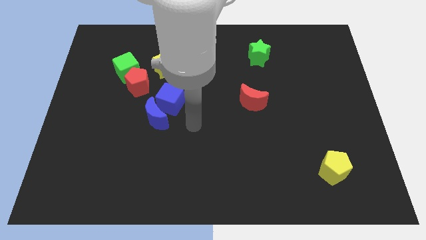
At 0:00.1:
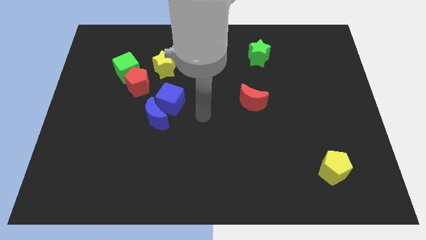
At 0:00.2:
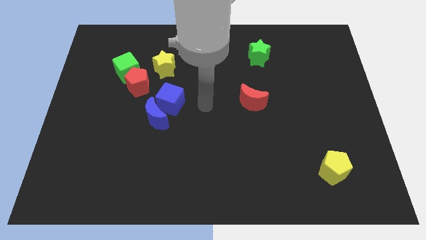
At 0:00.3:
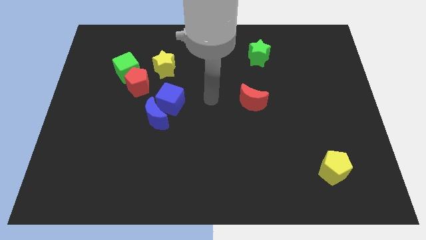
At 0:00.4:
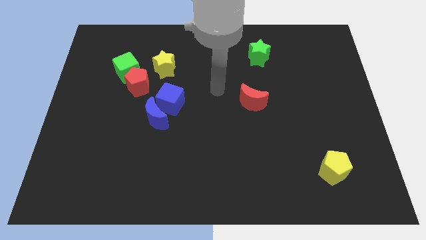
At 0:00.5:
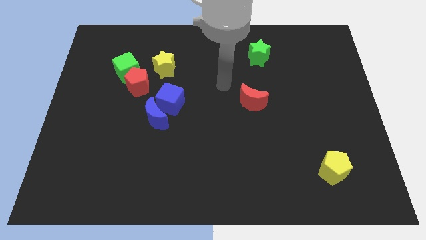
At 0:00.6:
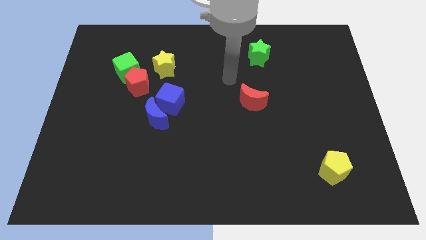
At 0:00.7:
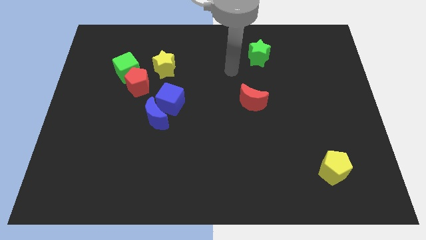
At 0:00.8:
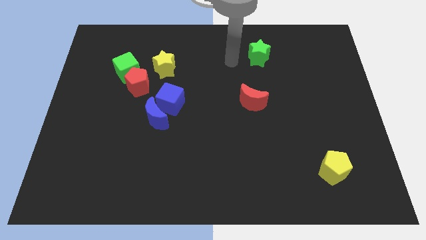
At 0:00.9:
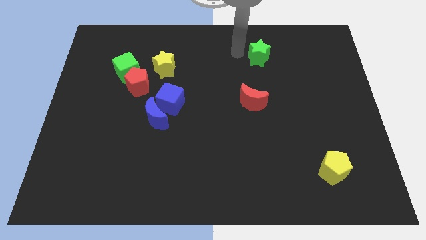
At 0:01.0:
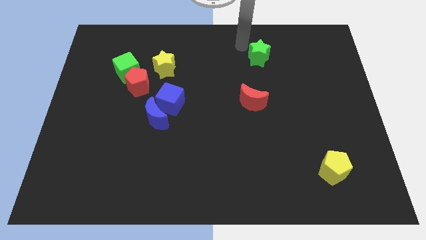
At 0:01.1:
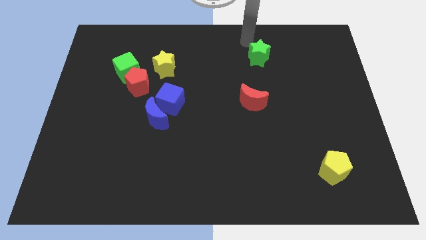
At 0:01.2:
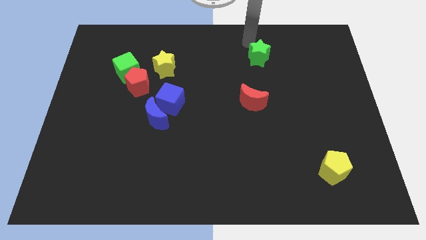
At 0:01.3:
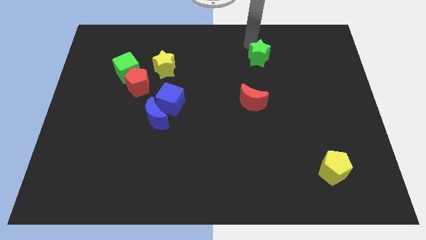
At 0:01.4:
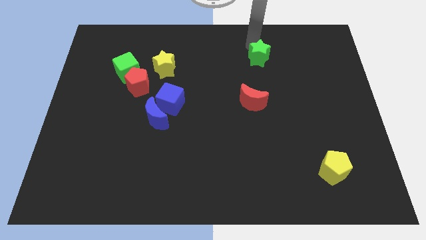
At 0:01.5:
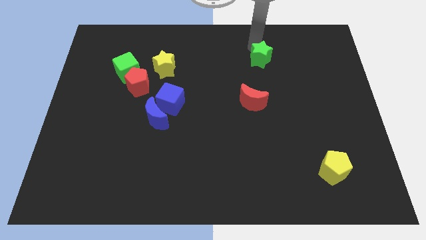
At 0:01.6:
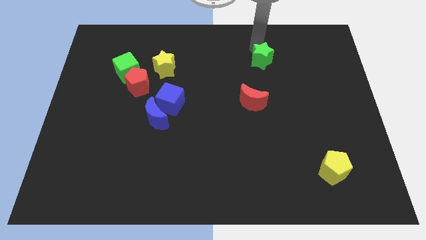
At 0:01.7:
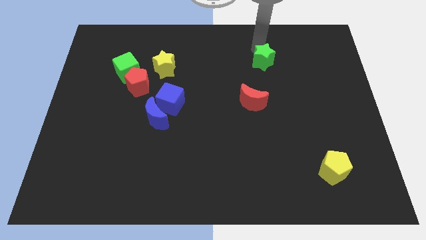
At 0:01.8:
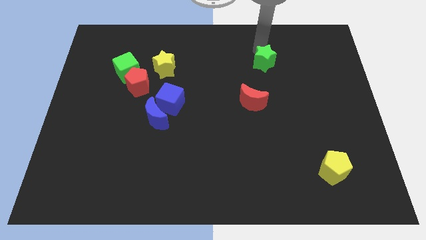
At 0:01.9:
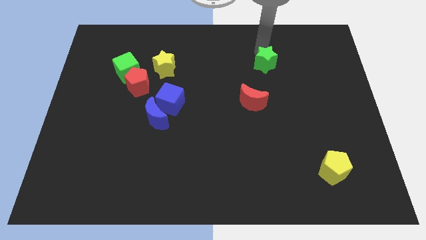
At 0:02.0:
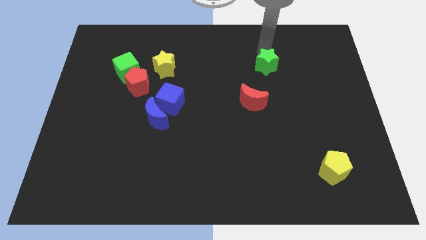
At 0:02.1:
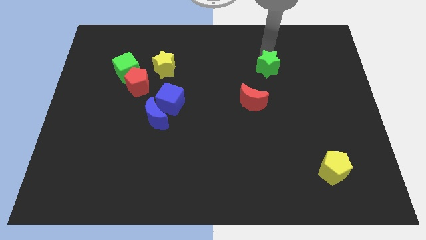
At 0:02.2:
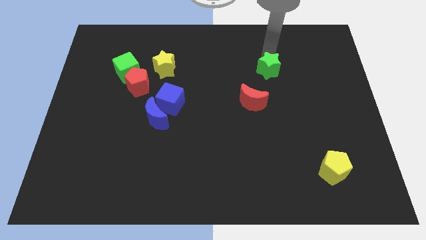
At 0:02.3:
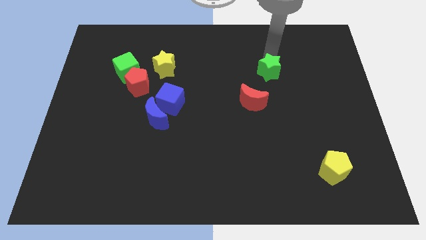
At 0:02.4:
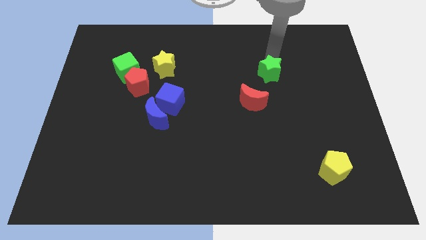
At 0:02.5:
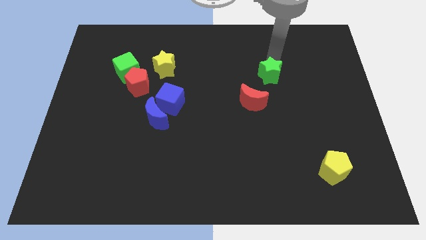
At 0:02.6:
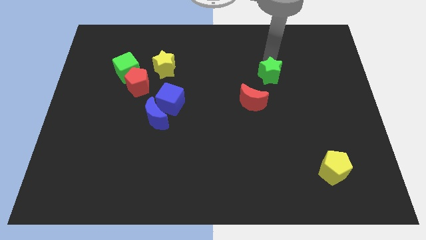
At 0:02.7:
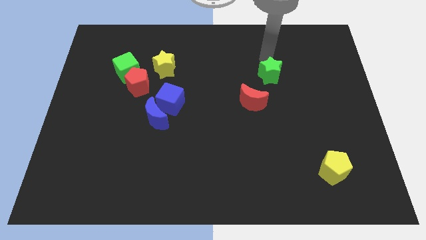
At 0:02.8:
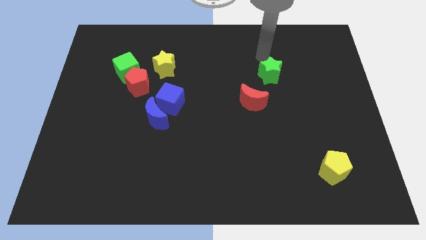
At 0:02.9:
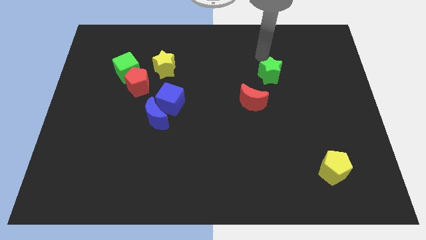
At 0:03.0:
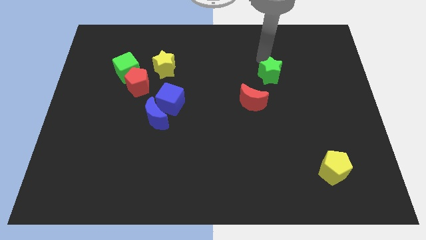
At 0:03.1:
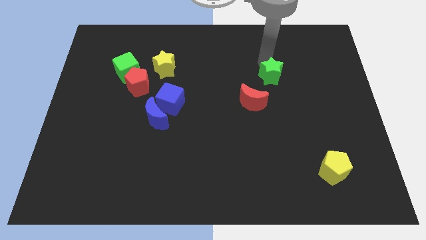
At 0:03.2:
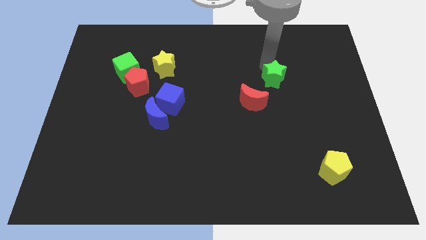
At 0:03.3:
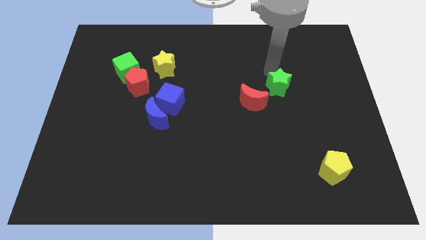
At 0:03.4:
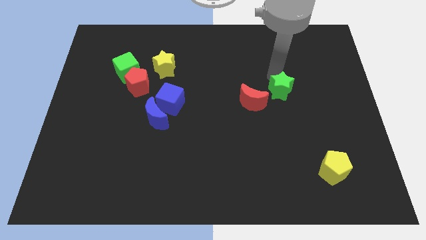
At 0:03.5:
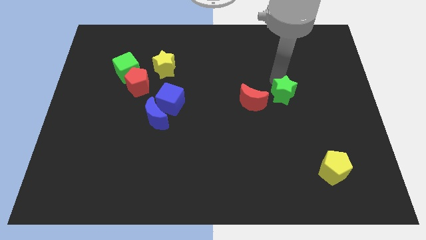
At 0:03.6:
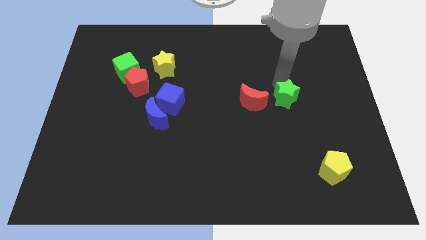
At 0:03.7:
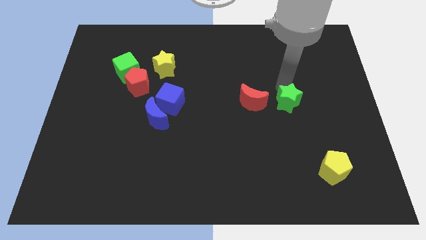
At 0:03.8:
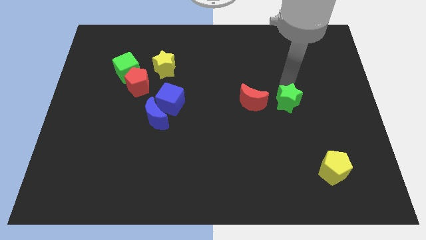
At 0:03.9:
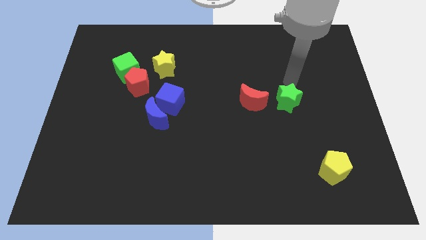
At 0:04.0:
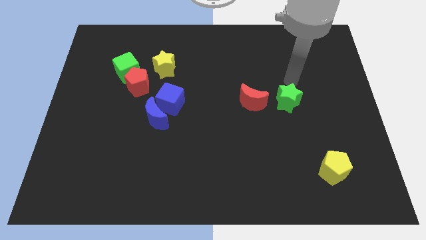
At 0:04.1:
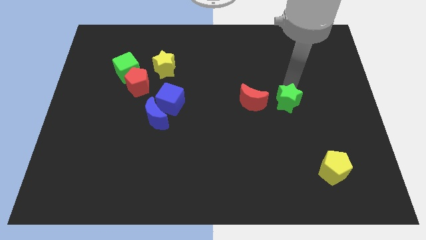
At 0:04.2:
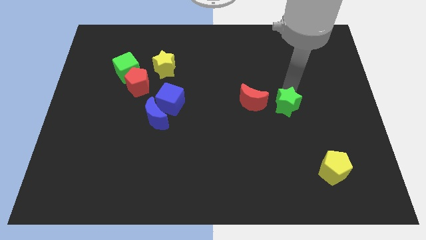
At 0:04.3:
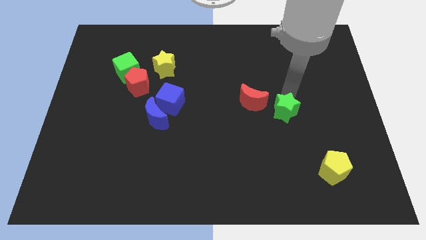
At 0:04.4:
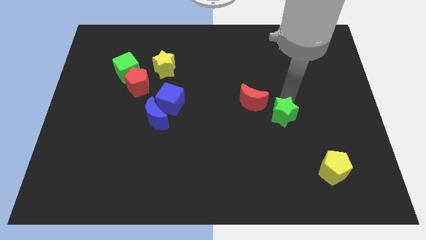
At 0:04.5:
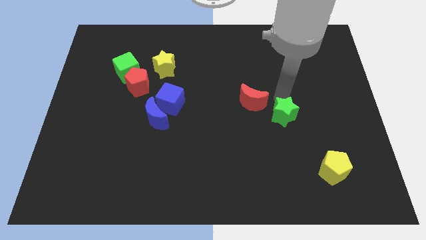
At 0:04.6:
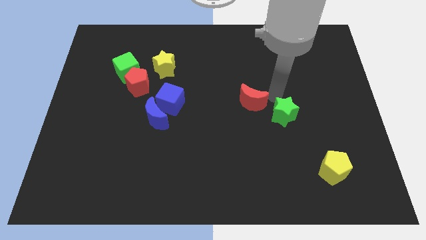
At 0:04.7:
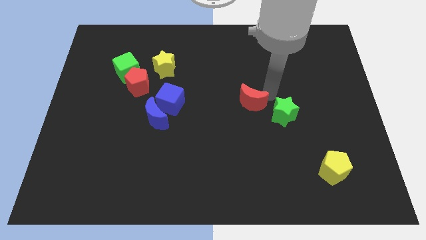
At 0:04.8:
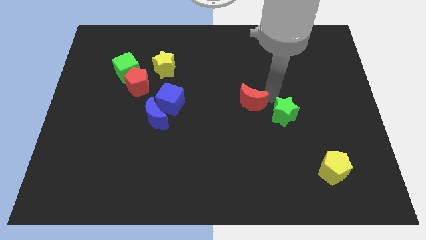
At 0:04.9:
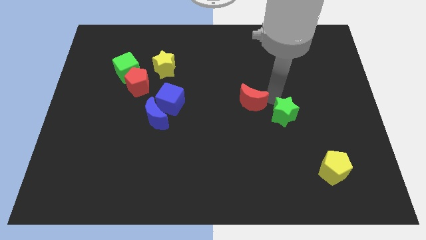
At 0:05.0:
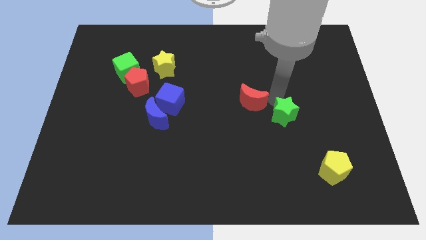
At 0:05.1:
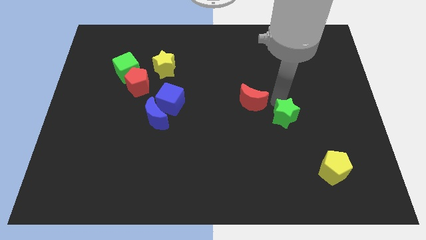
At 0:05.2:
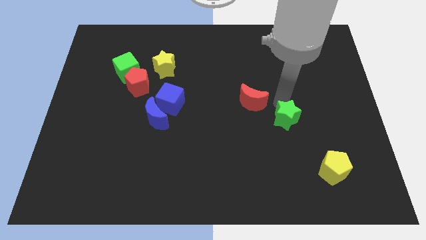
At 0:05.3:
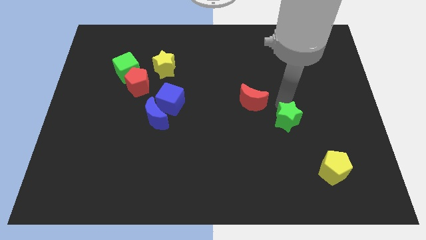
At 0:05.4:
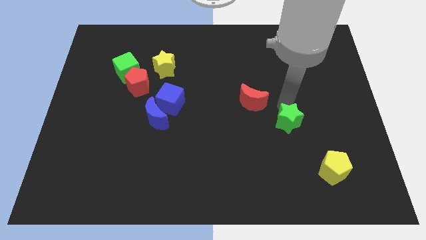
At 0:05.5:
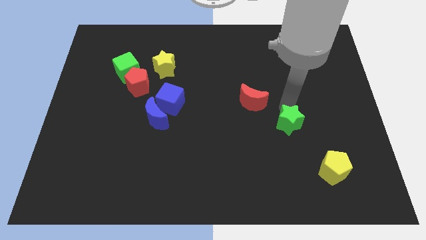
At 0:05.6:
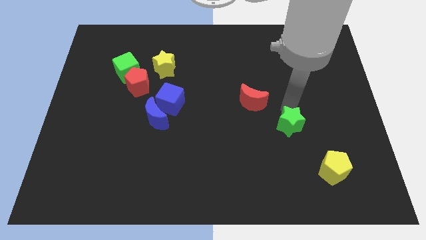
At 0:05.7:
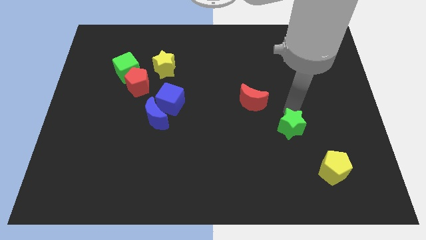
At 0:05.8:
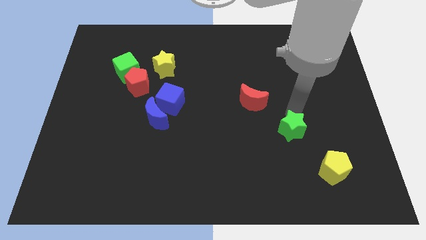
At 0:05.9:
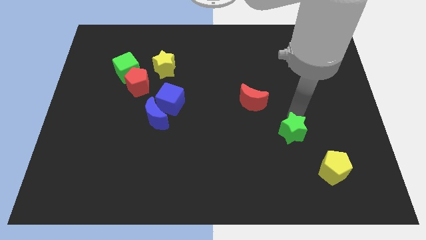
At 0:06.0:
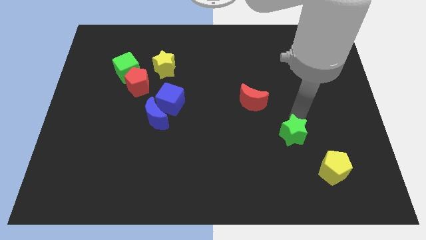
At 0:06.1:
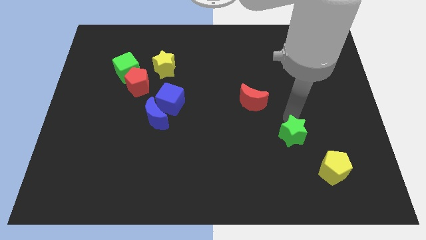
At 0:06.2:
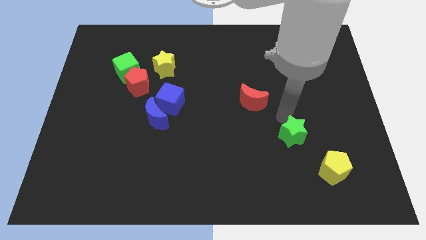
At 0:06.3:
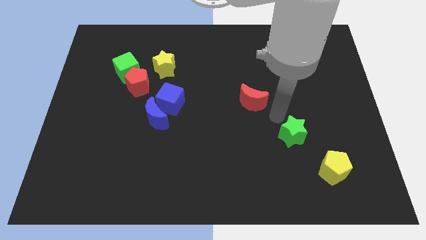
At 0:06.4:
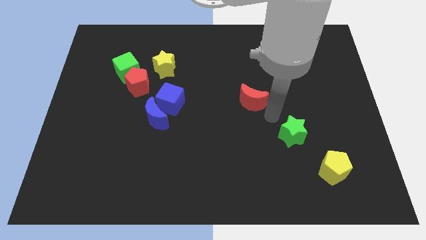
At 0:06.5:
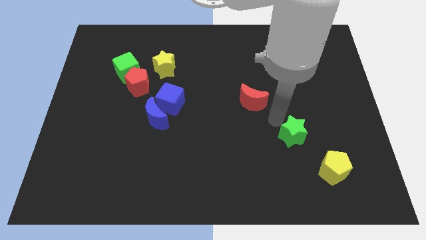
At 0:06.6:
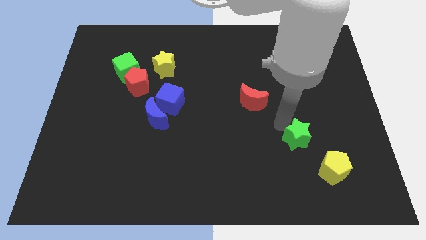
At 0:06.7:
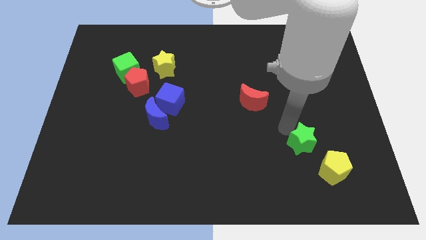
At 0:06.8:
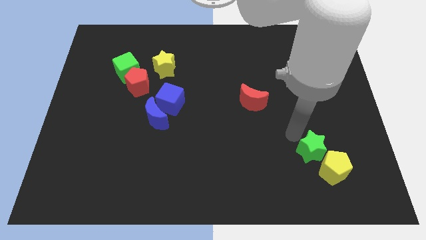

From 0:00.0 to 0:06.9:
put the green star towards the yellow pentagon

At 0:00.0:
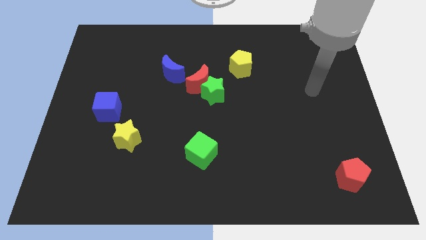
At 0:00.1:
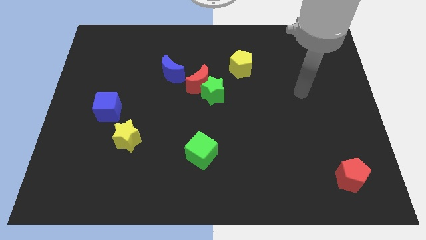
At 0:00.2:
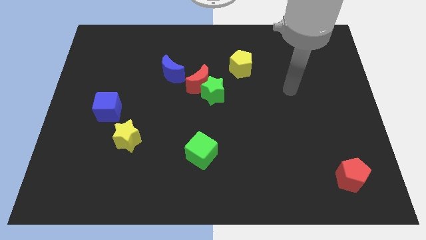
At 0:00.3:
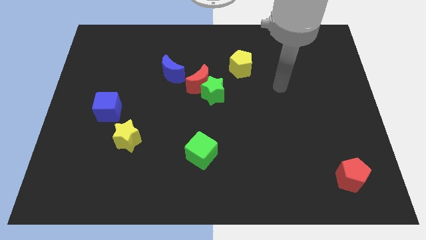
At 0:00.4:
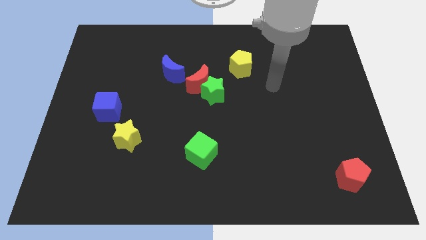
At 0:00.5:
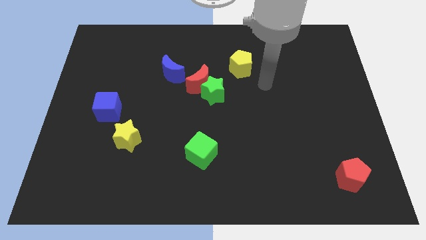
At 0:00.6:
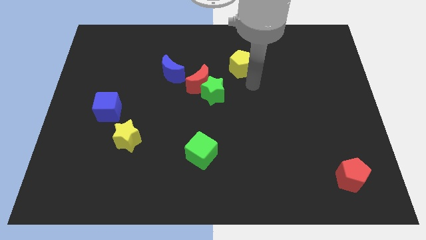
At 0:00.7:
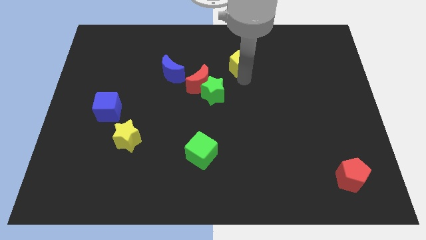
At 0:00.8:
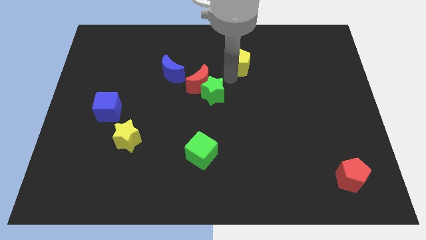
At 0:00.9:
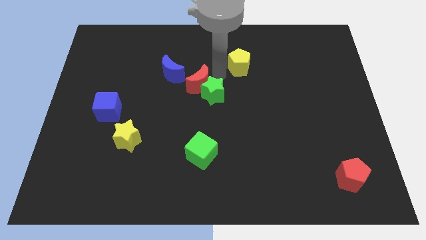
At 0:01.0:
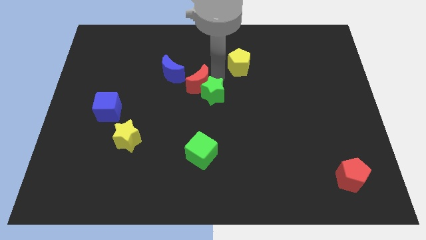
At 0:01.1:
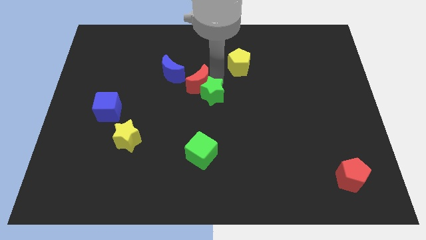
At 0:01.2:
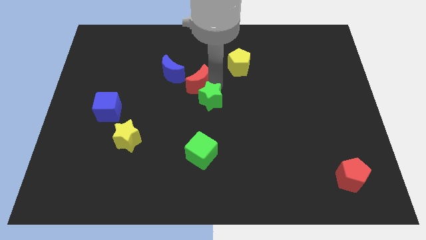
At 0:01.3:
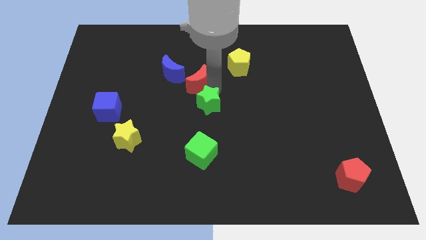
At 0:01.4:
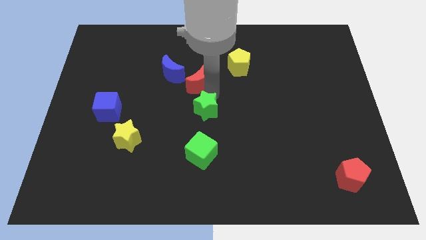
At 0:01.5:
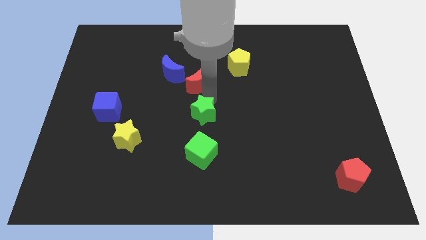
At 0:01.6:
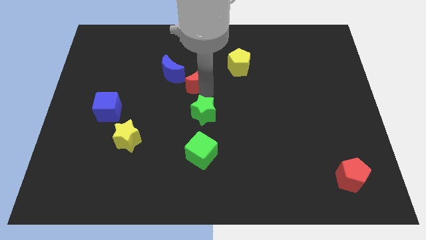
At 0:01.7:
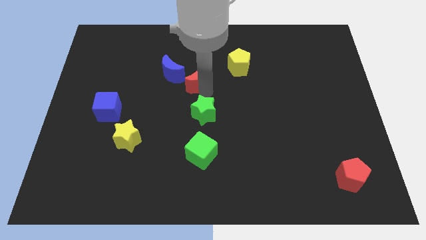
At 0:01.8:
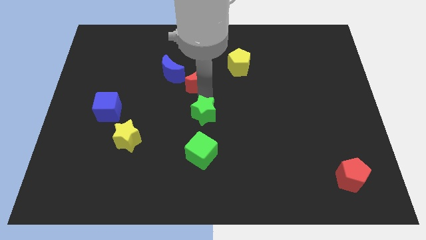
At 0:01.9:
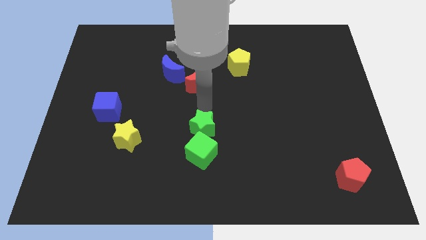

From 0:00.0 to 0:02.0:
push the green star close to the green cube
